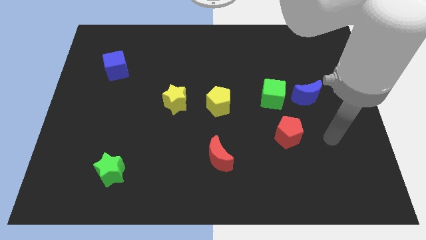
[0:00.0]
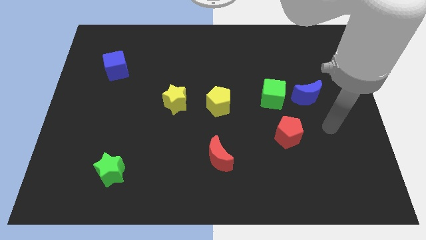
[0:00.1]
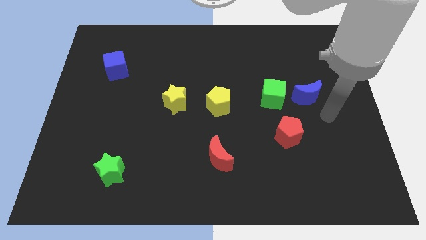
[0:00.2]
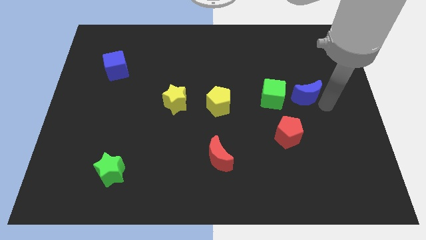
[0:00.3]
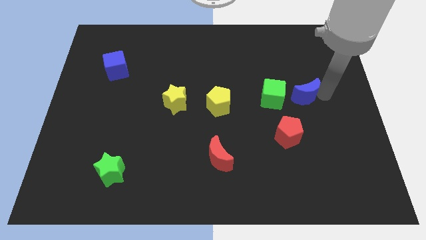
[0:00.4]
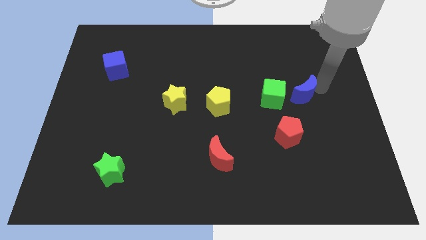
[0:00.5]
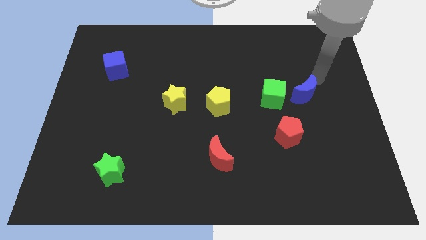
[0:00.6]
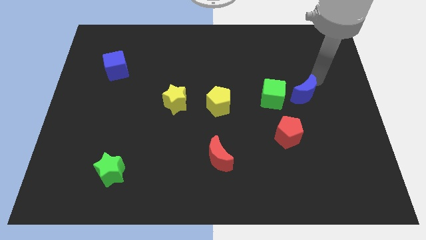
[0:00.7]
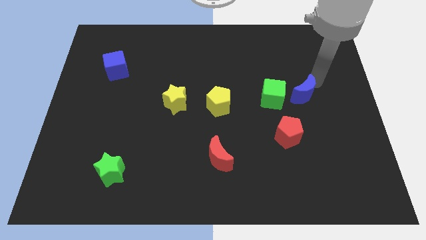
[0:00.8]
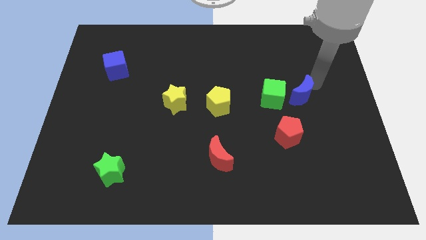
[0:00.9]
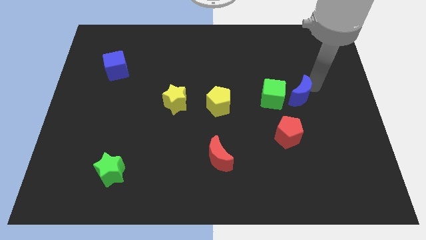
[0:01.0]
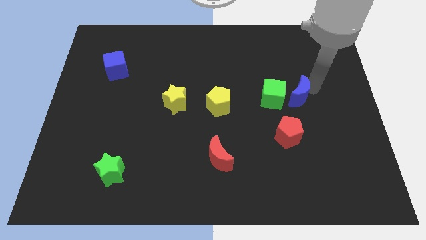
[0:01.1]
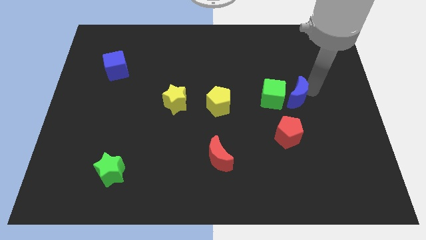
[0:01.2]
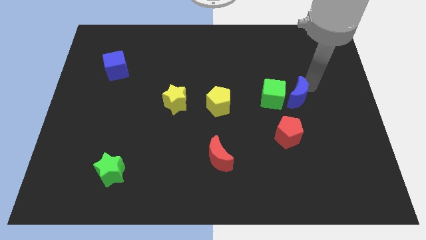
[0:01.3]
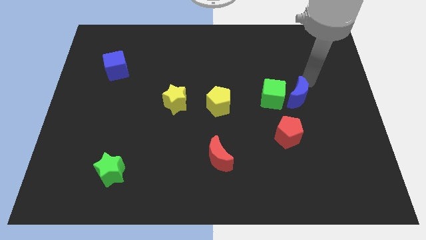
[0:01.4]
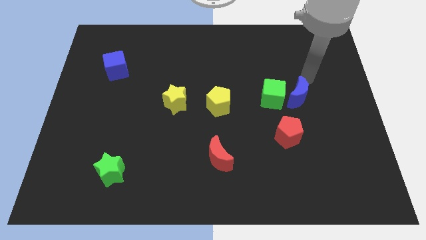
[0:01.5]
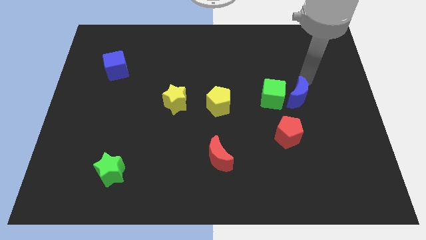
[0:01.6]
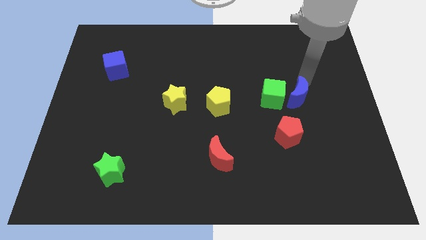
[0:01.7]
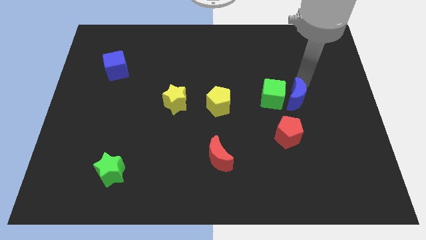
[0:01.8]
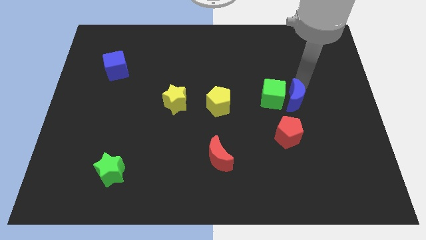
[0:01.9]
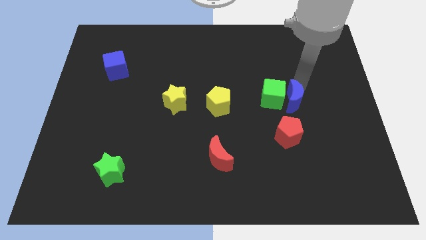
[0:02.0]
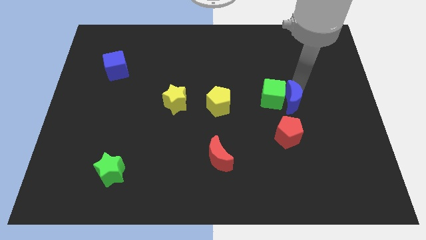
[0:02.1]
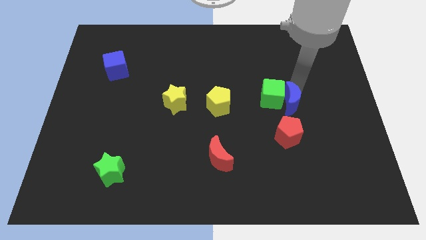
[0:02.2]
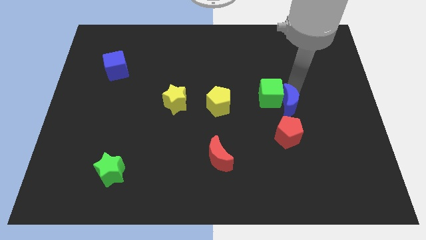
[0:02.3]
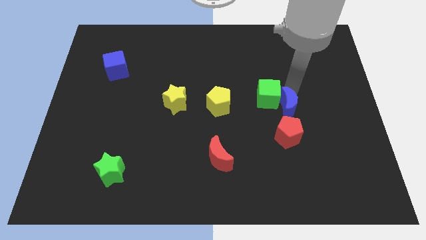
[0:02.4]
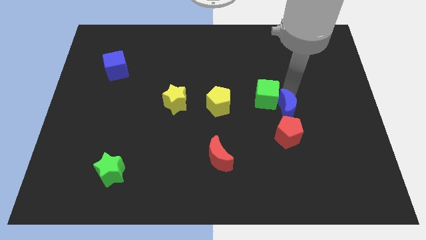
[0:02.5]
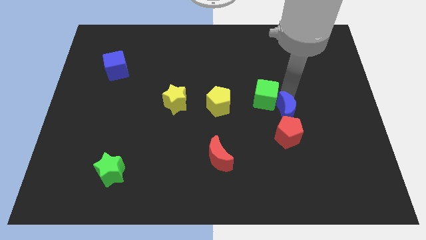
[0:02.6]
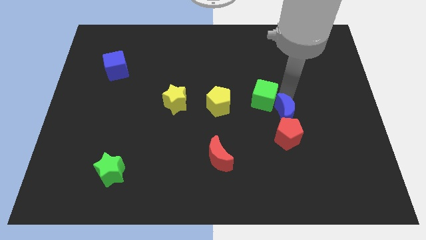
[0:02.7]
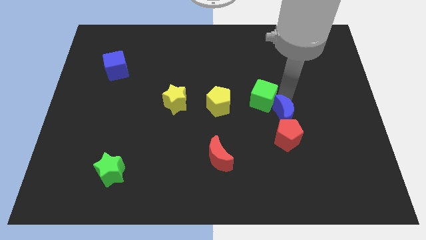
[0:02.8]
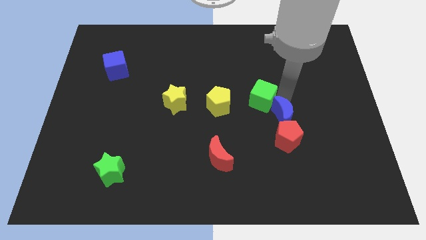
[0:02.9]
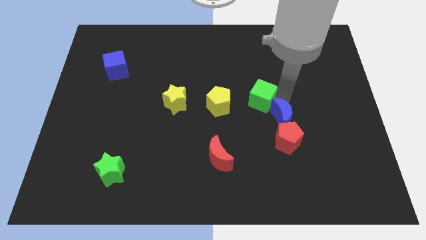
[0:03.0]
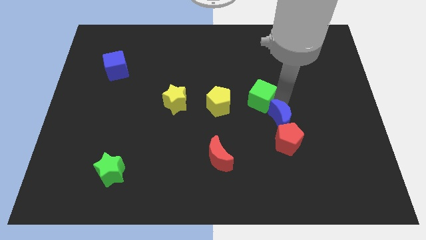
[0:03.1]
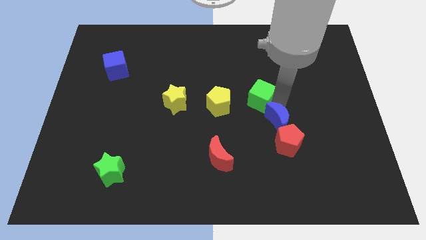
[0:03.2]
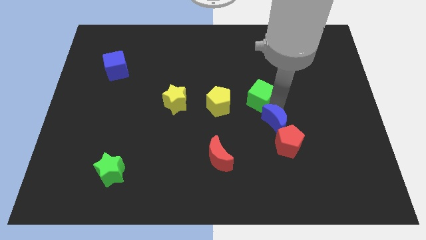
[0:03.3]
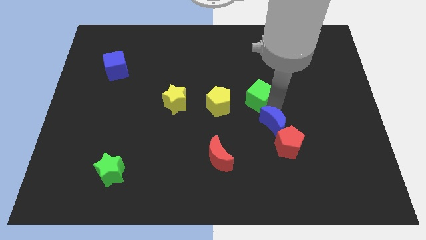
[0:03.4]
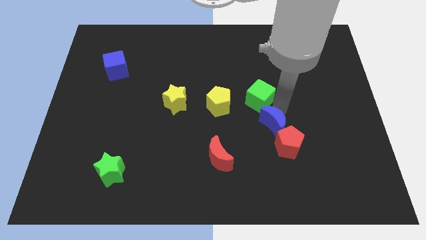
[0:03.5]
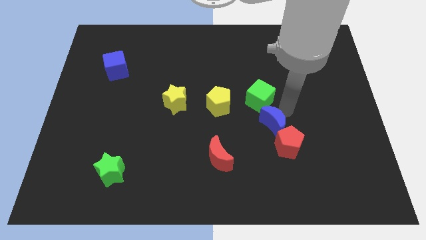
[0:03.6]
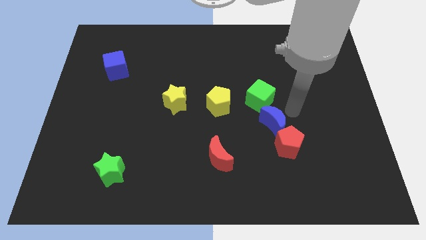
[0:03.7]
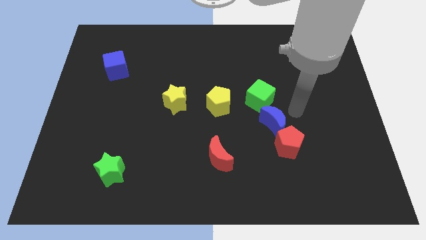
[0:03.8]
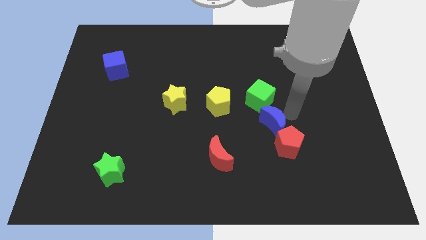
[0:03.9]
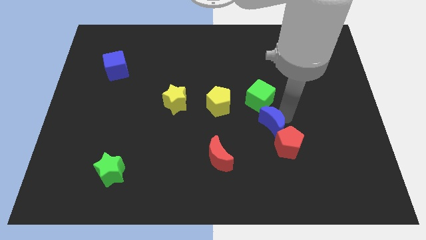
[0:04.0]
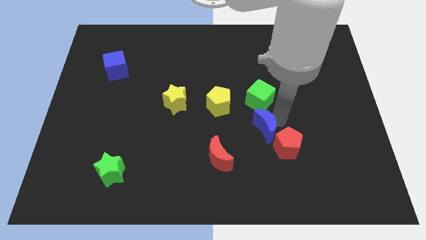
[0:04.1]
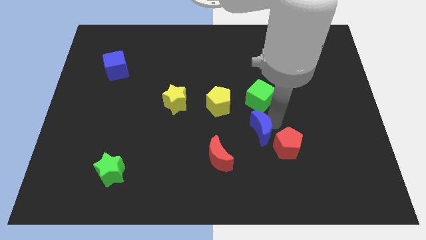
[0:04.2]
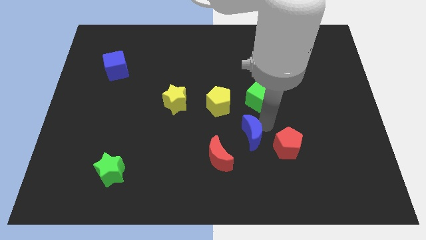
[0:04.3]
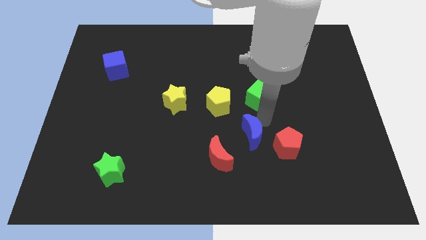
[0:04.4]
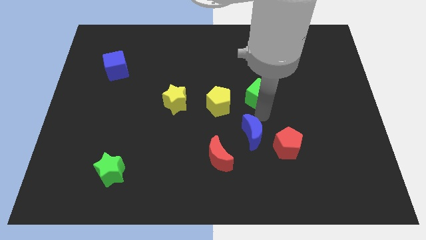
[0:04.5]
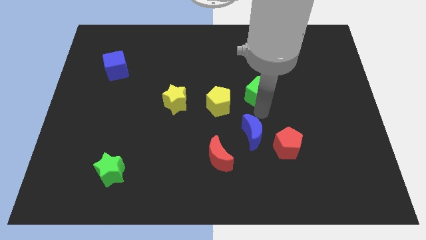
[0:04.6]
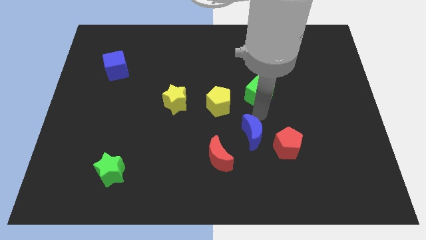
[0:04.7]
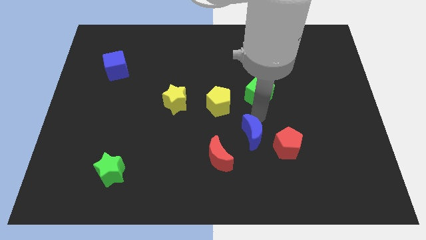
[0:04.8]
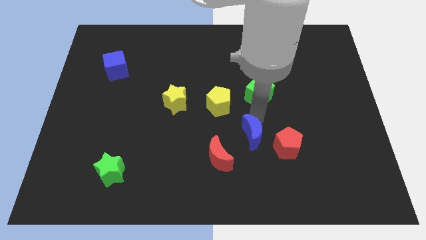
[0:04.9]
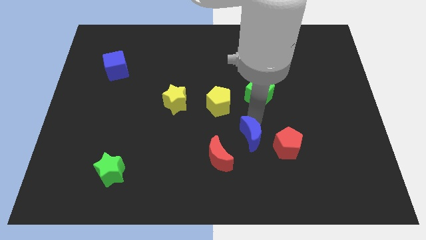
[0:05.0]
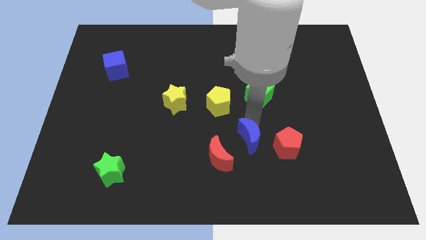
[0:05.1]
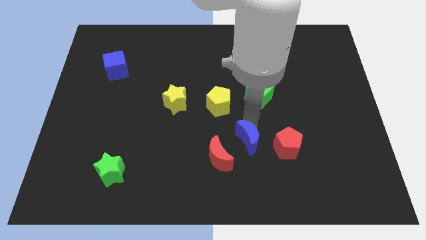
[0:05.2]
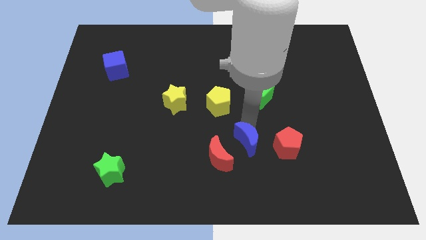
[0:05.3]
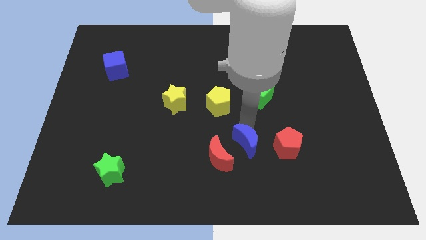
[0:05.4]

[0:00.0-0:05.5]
slide the blue moon downwards and left

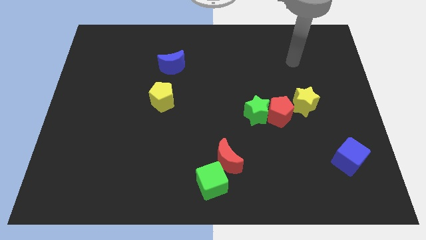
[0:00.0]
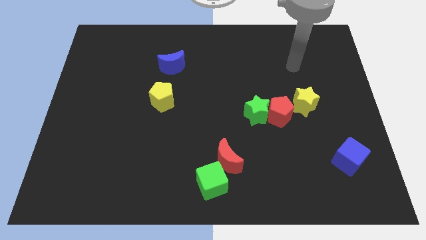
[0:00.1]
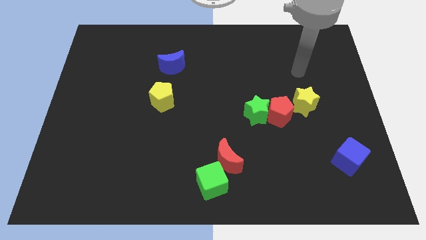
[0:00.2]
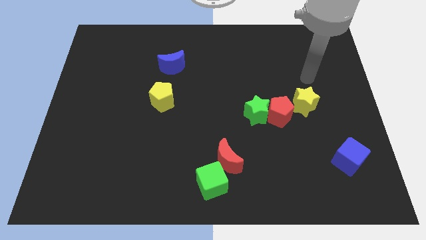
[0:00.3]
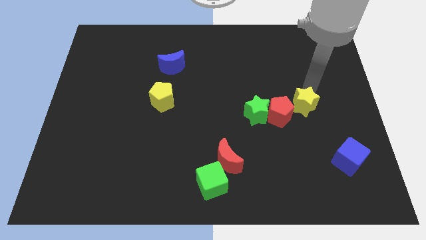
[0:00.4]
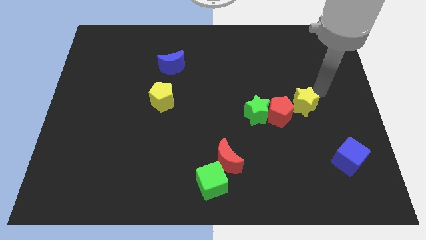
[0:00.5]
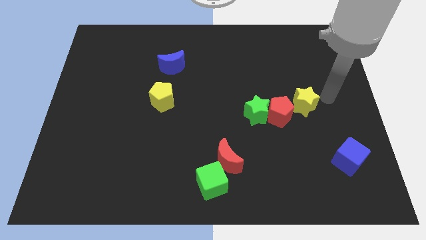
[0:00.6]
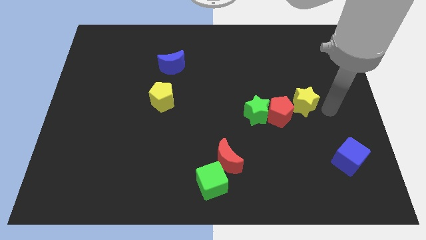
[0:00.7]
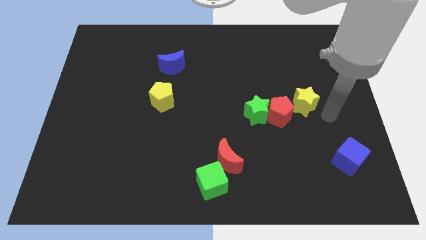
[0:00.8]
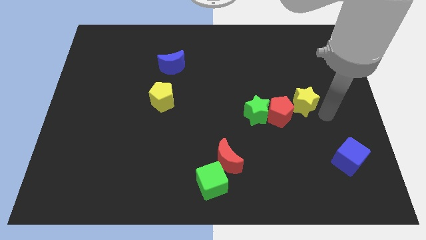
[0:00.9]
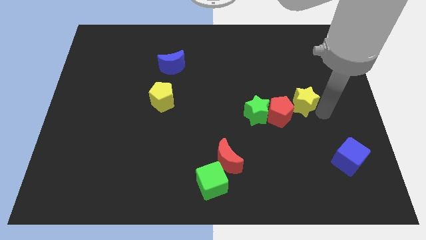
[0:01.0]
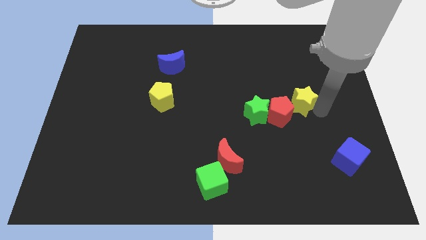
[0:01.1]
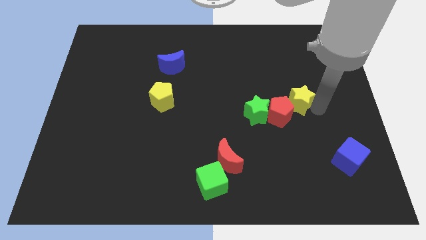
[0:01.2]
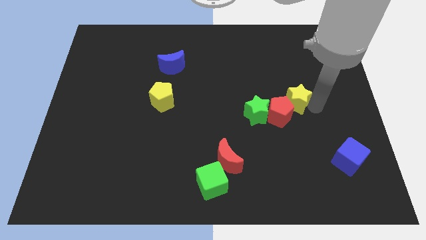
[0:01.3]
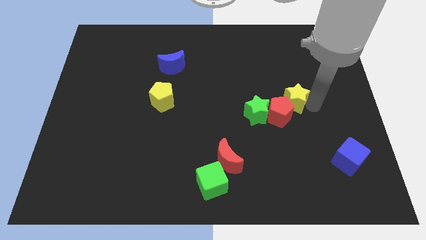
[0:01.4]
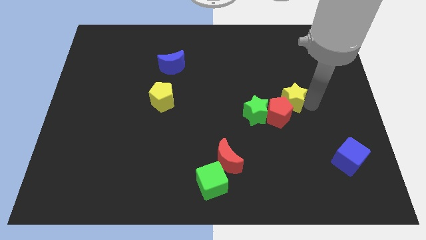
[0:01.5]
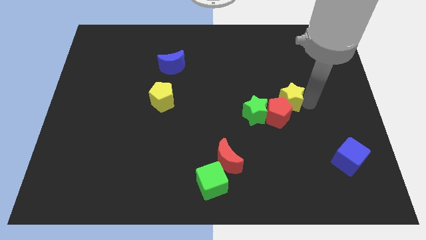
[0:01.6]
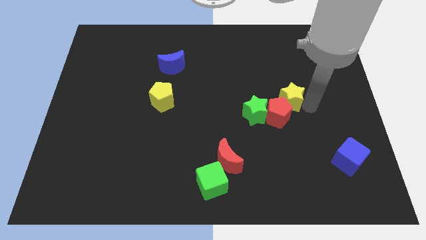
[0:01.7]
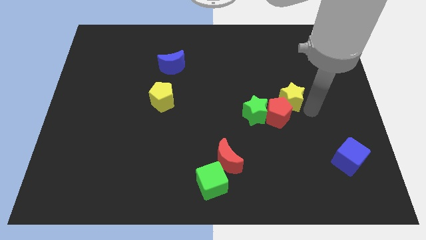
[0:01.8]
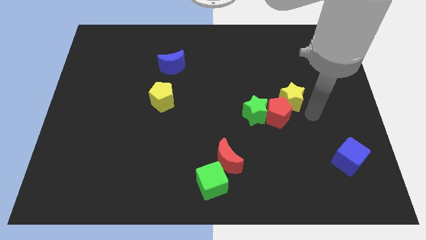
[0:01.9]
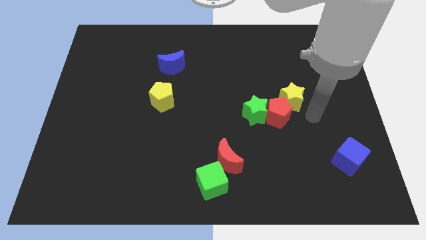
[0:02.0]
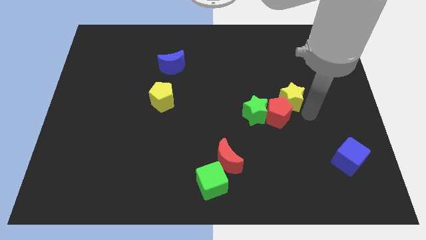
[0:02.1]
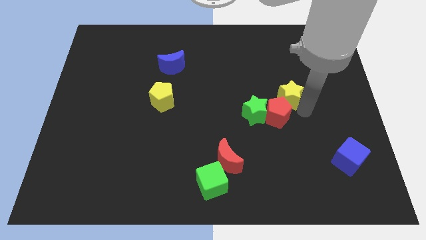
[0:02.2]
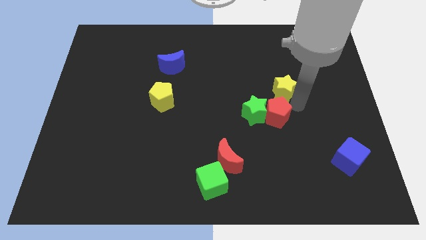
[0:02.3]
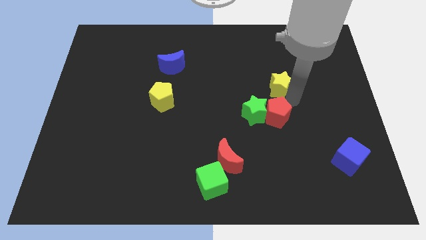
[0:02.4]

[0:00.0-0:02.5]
slide the yellow star a bit upwards and to the left diagonally

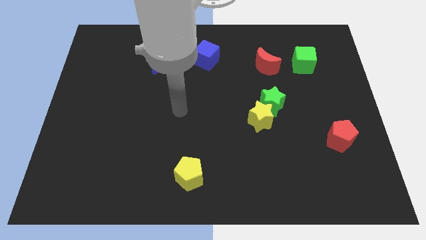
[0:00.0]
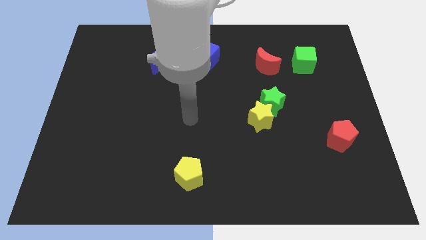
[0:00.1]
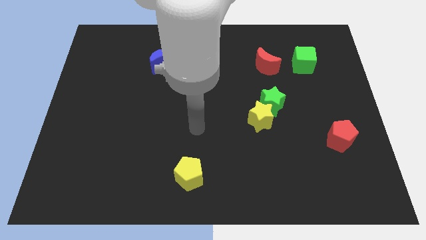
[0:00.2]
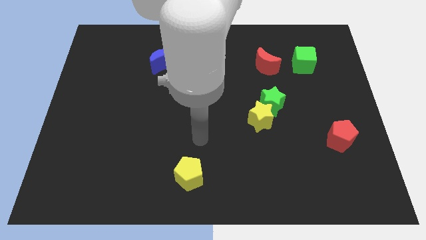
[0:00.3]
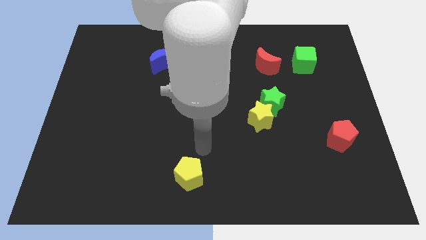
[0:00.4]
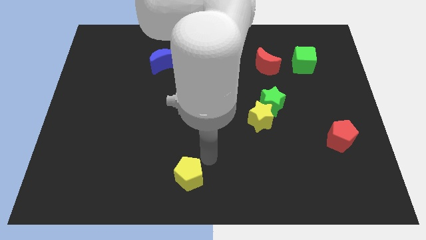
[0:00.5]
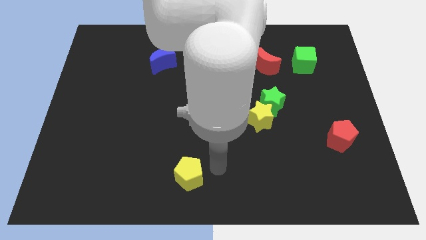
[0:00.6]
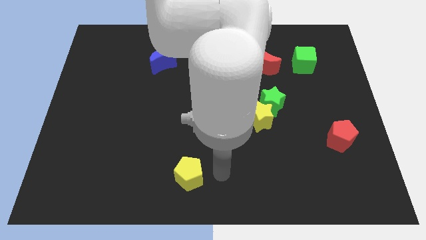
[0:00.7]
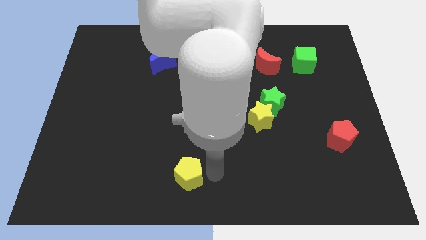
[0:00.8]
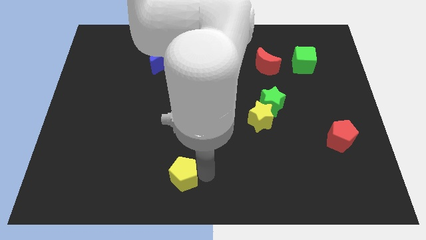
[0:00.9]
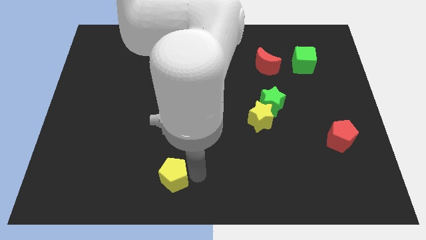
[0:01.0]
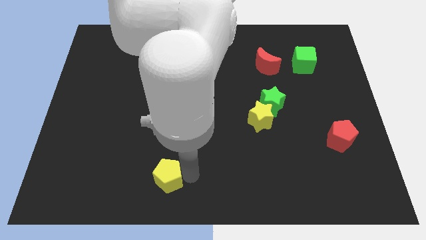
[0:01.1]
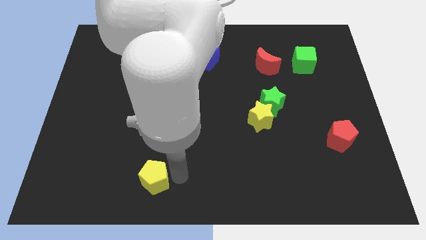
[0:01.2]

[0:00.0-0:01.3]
slightly push the yellow pentagon to the left
